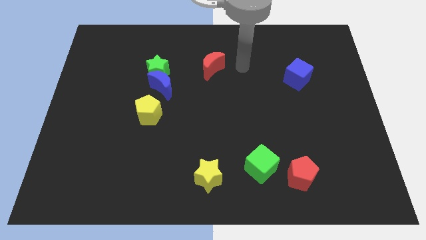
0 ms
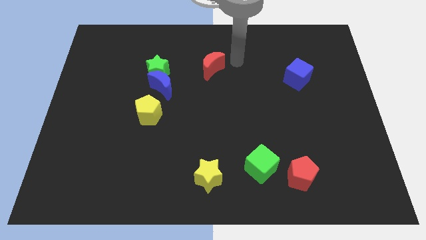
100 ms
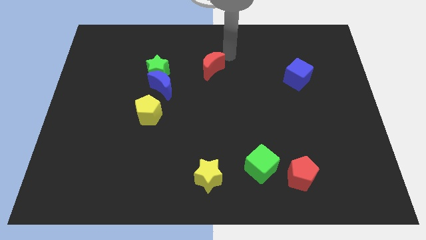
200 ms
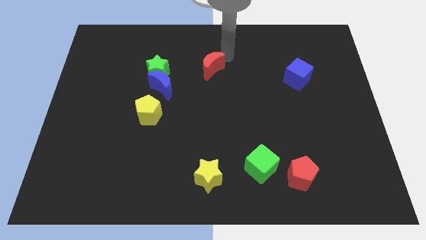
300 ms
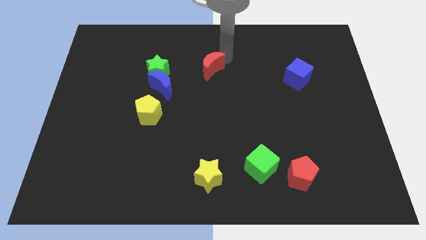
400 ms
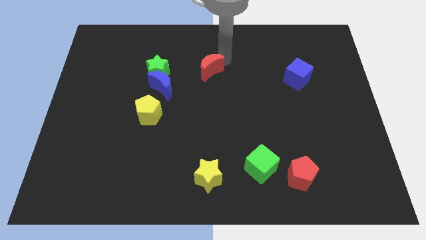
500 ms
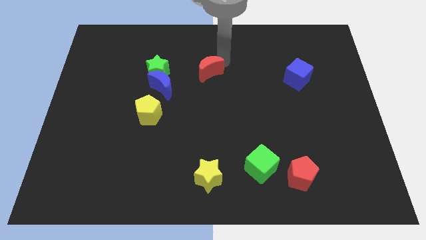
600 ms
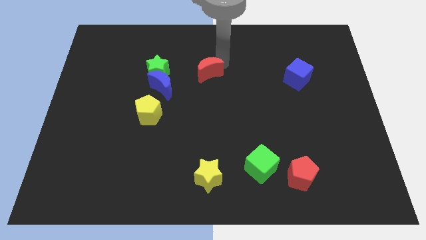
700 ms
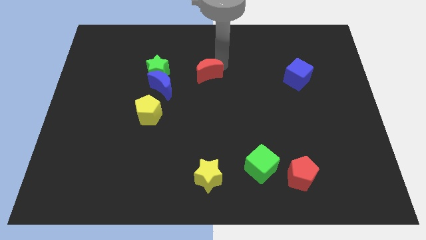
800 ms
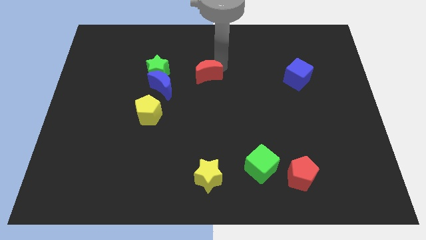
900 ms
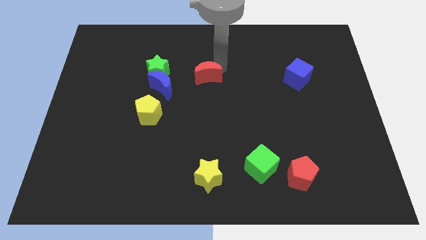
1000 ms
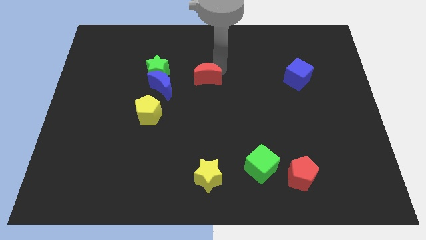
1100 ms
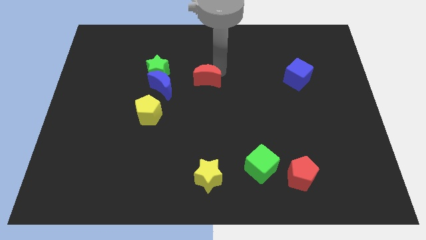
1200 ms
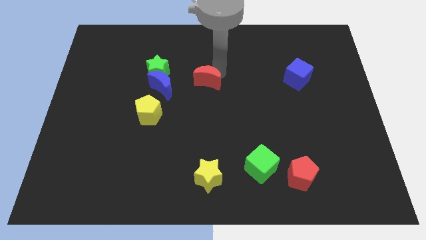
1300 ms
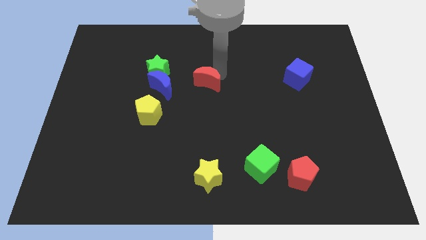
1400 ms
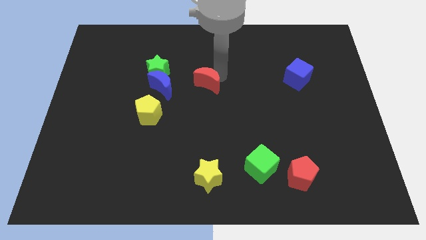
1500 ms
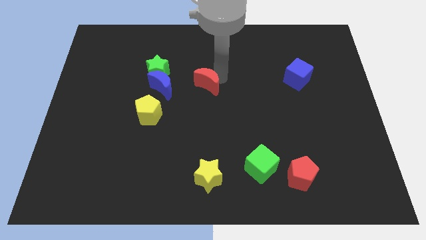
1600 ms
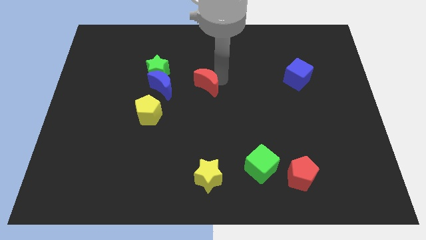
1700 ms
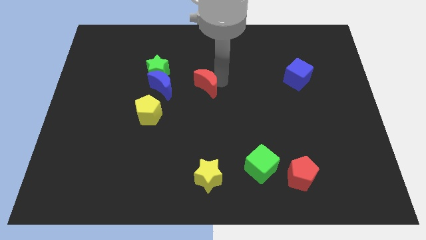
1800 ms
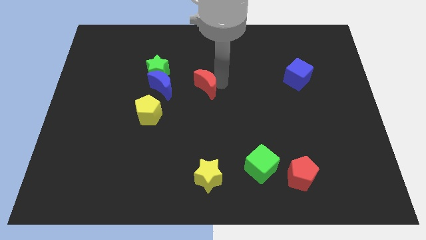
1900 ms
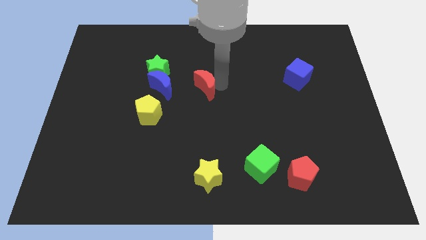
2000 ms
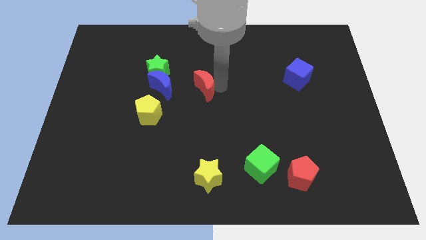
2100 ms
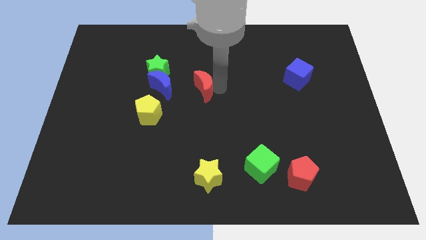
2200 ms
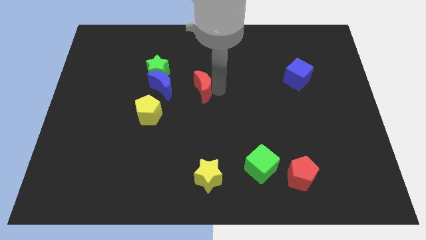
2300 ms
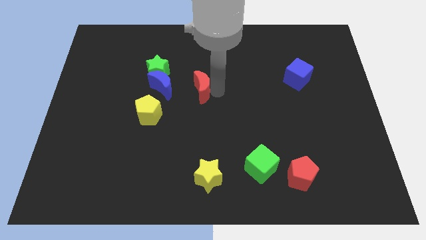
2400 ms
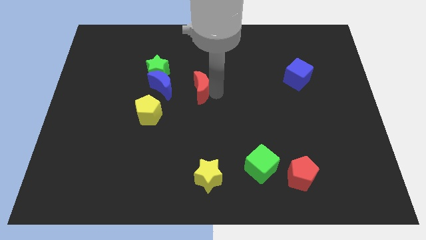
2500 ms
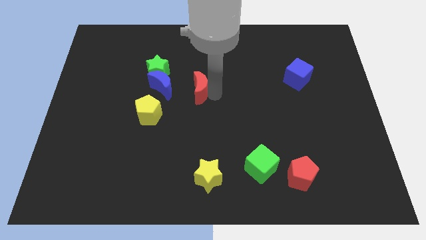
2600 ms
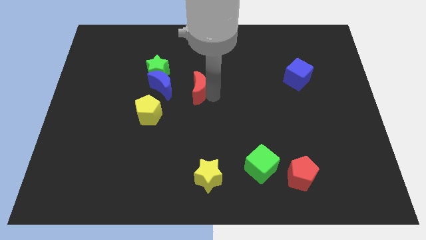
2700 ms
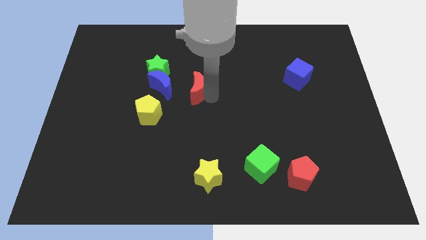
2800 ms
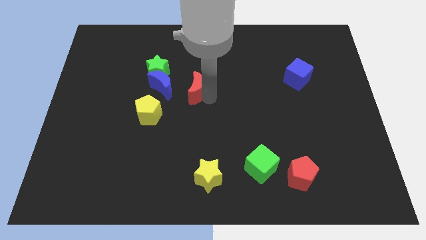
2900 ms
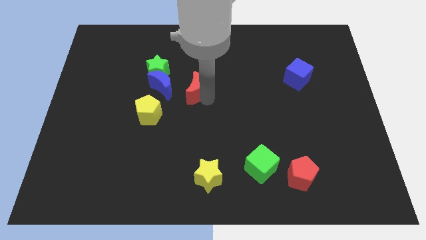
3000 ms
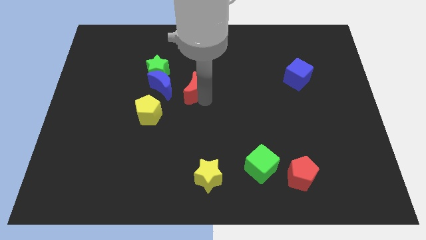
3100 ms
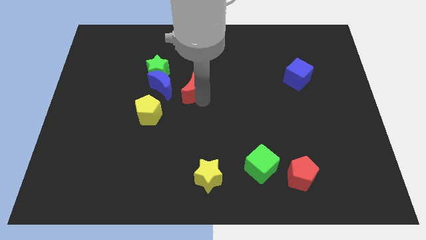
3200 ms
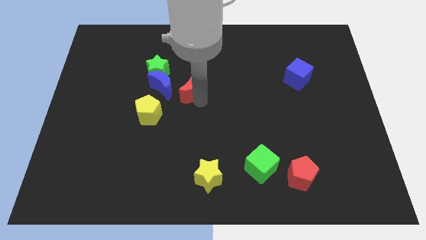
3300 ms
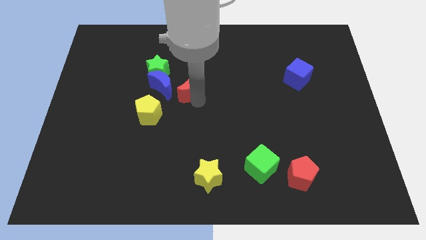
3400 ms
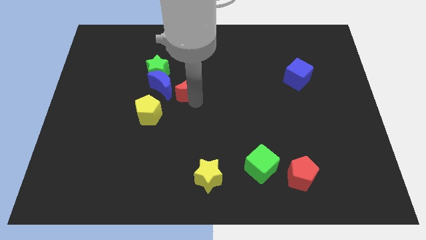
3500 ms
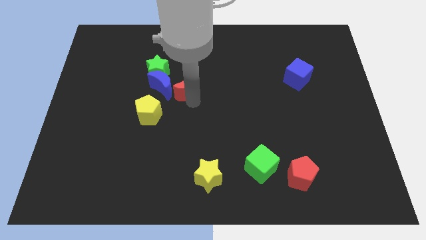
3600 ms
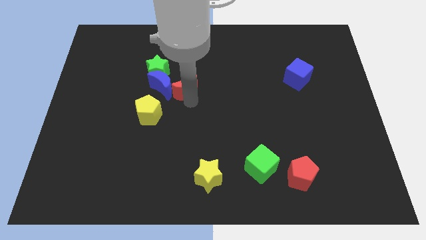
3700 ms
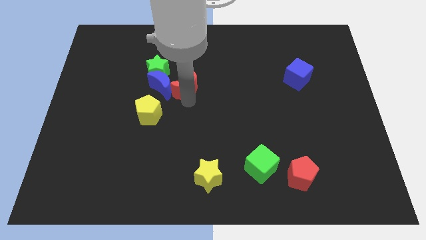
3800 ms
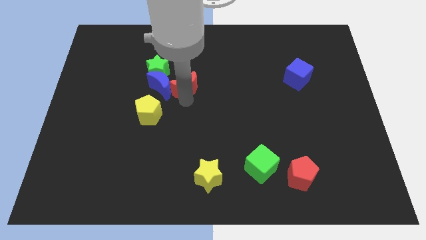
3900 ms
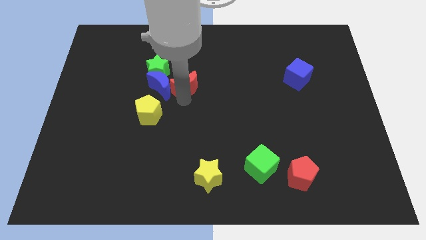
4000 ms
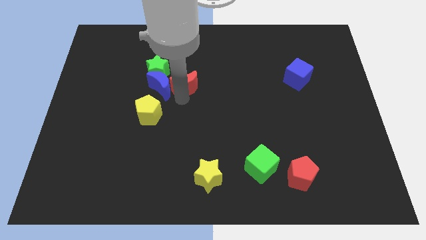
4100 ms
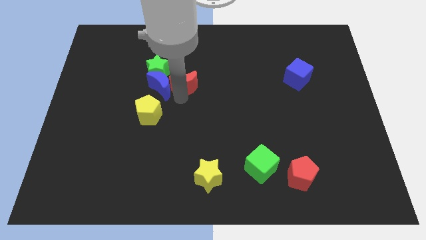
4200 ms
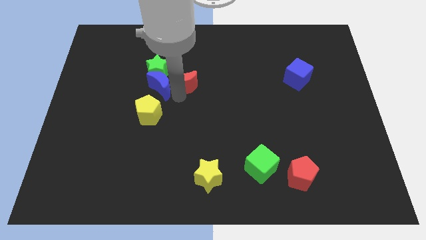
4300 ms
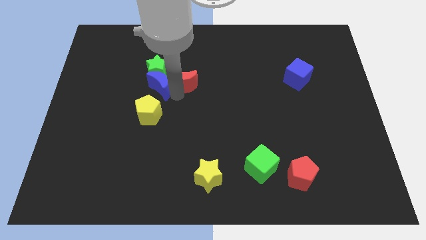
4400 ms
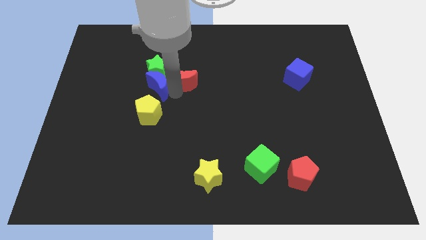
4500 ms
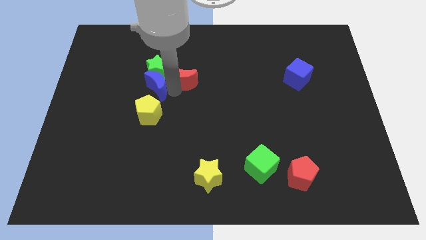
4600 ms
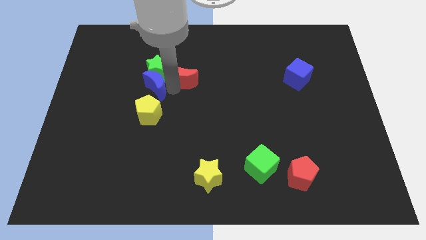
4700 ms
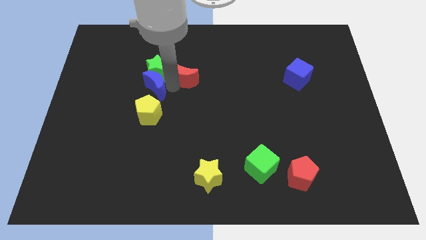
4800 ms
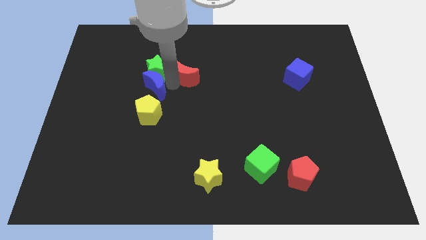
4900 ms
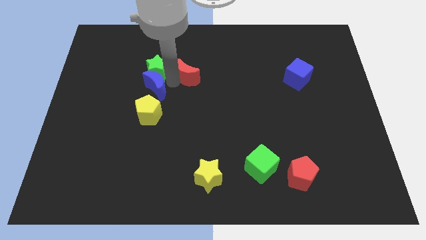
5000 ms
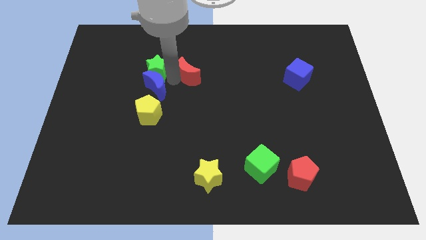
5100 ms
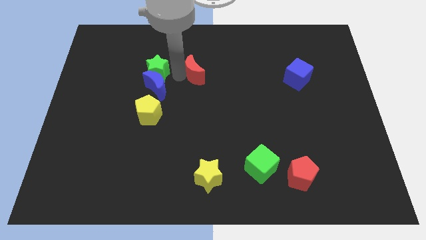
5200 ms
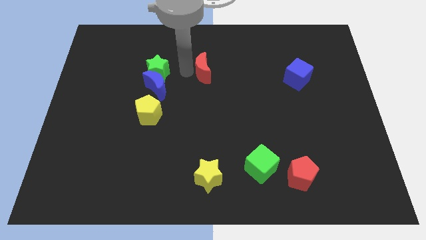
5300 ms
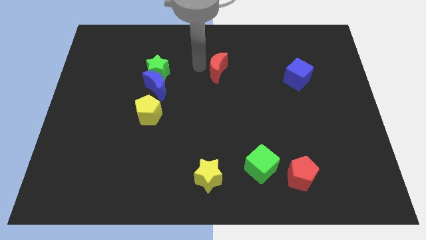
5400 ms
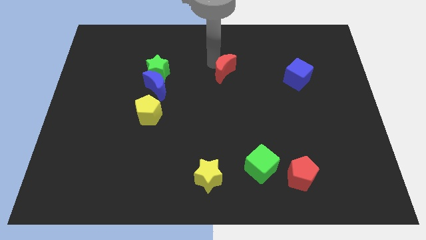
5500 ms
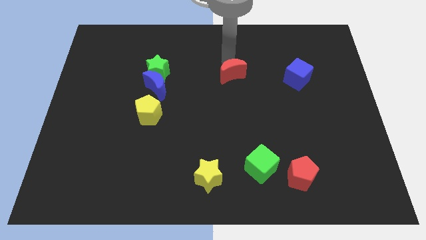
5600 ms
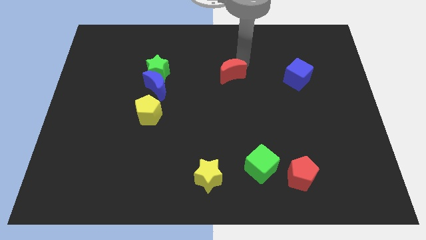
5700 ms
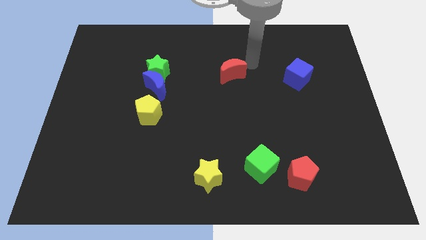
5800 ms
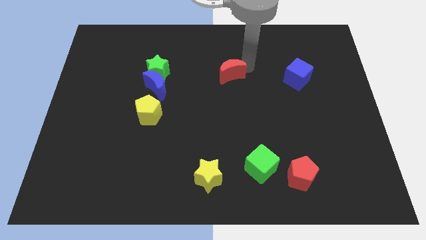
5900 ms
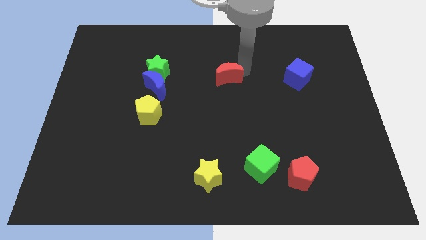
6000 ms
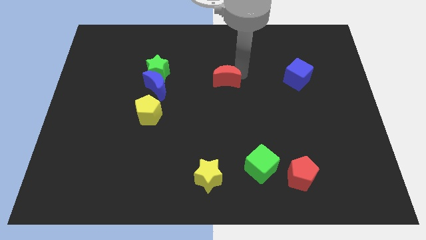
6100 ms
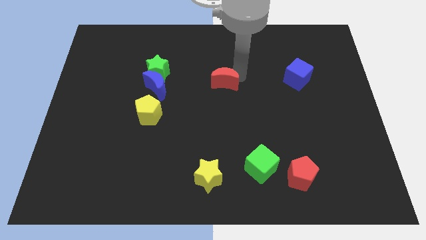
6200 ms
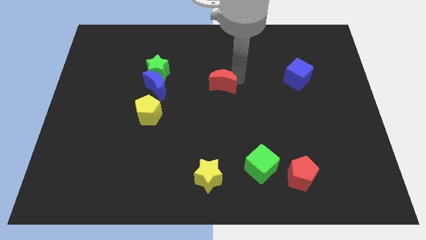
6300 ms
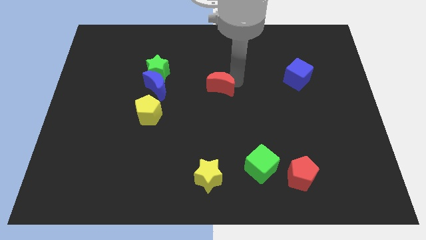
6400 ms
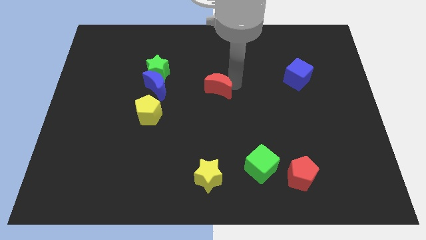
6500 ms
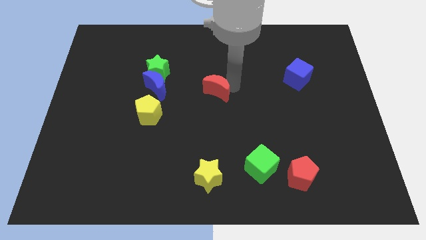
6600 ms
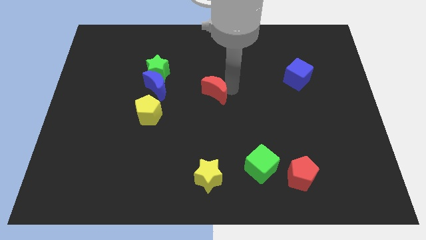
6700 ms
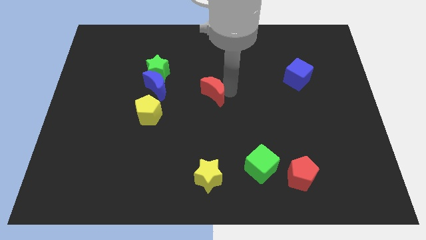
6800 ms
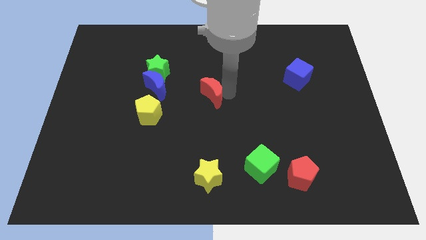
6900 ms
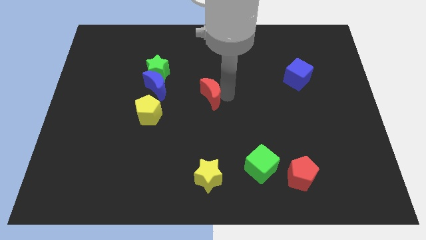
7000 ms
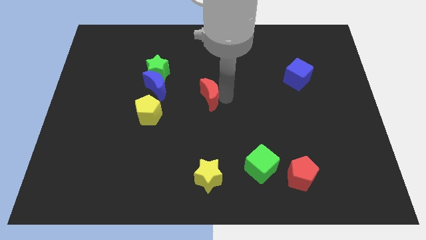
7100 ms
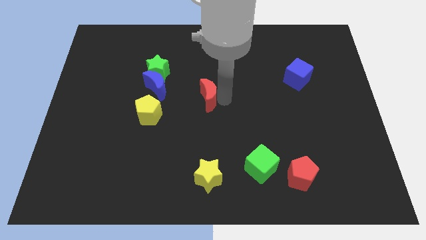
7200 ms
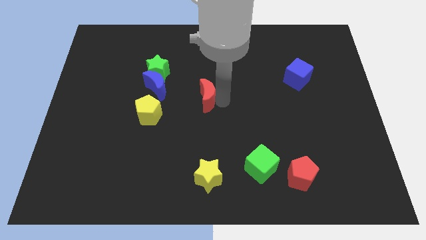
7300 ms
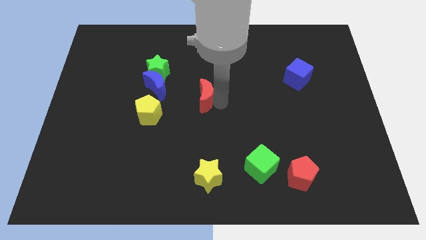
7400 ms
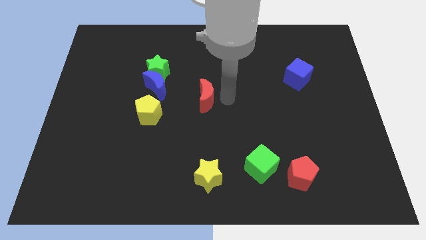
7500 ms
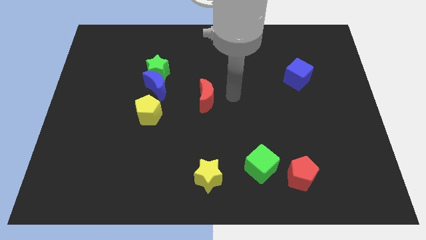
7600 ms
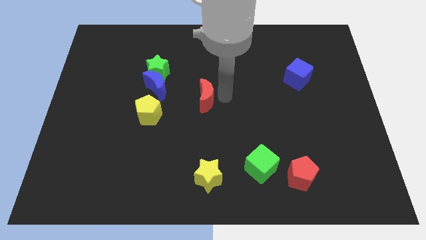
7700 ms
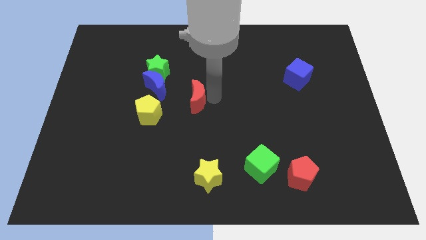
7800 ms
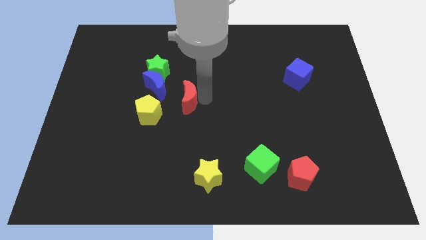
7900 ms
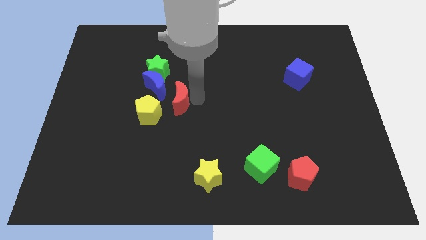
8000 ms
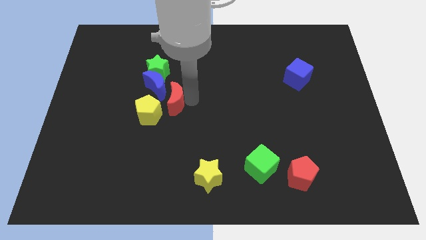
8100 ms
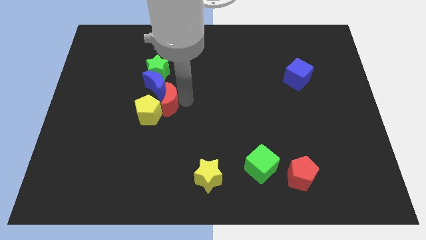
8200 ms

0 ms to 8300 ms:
move the red moon to the yellow pentagon
